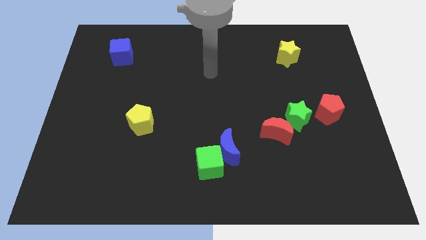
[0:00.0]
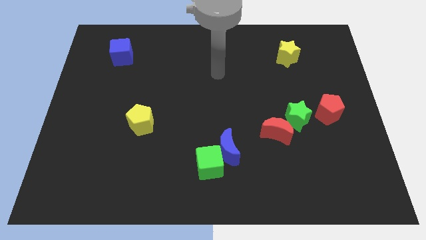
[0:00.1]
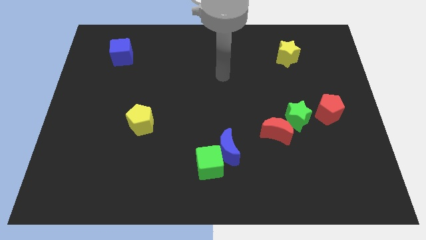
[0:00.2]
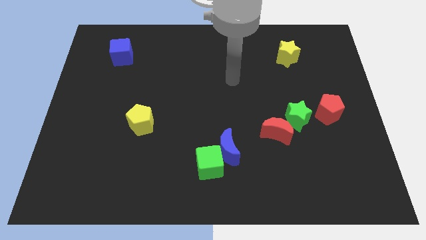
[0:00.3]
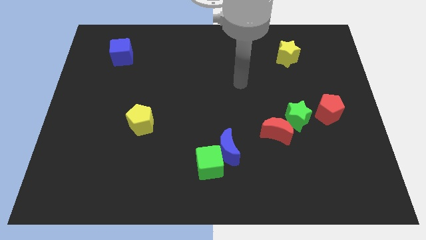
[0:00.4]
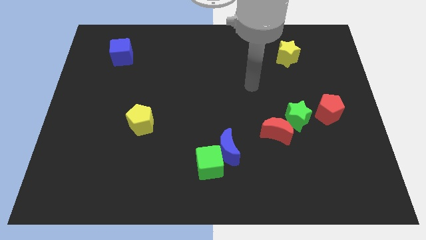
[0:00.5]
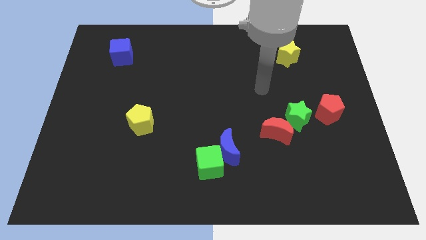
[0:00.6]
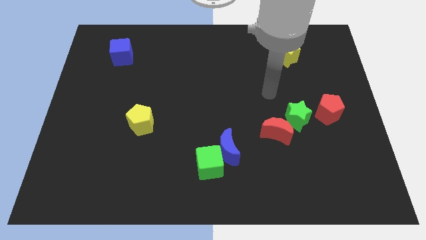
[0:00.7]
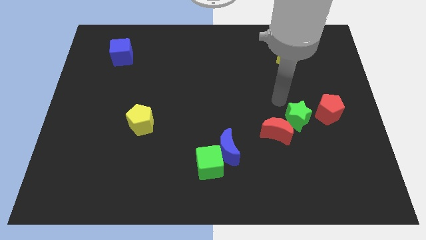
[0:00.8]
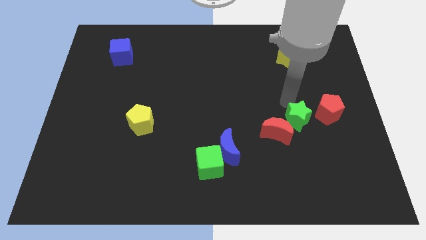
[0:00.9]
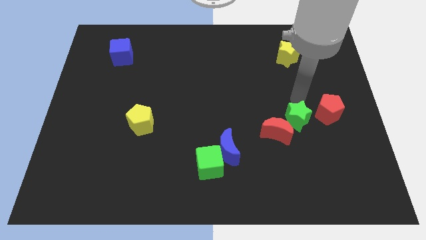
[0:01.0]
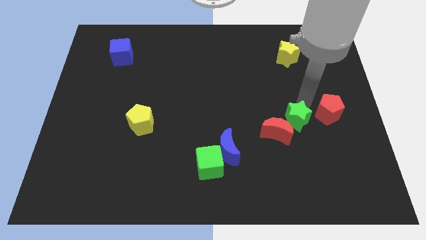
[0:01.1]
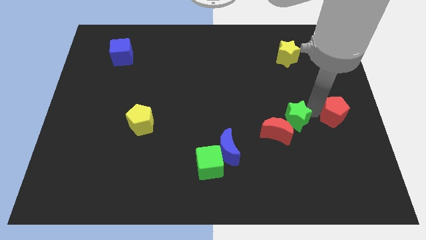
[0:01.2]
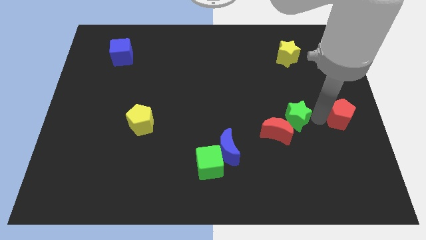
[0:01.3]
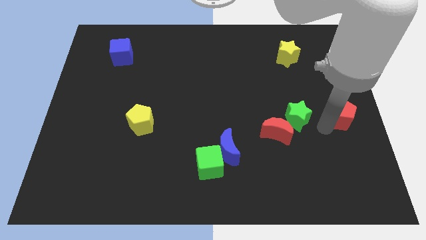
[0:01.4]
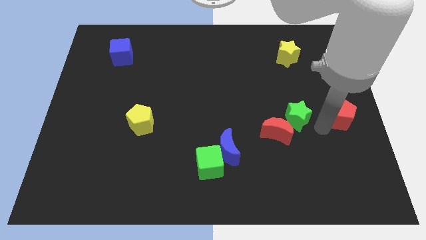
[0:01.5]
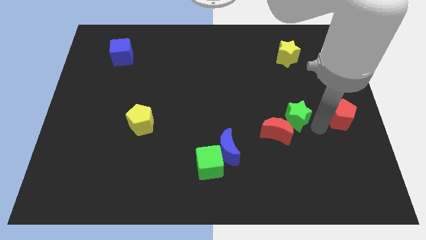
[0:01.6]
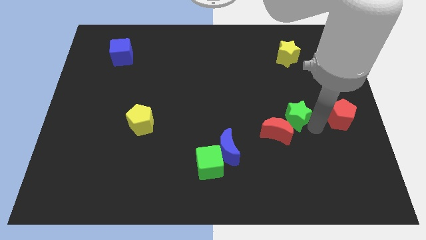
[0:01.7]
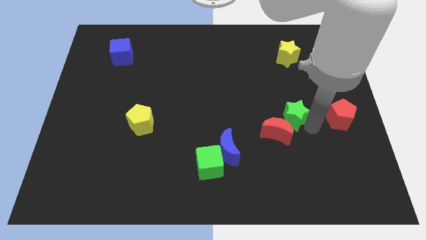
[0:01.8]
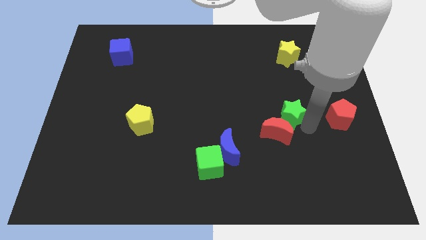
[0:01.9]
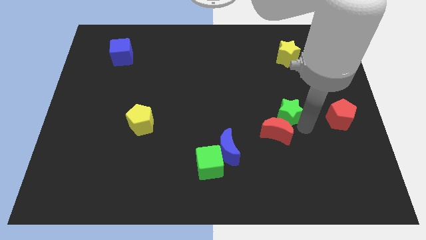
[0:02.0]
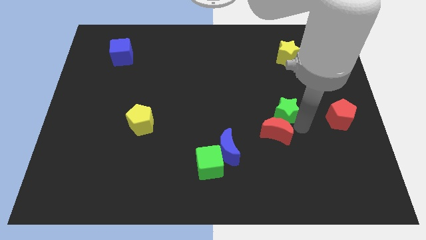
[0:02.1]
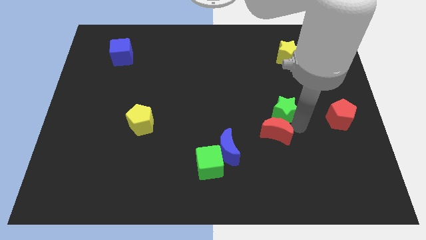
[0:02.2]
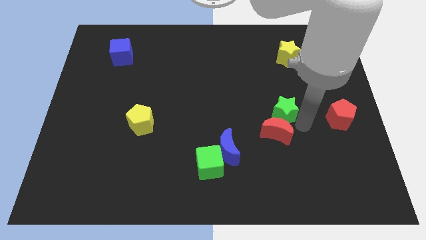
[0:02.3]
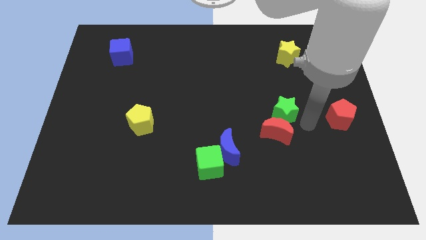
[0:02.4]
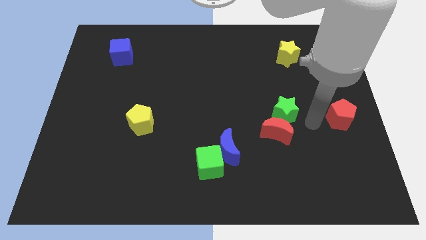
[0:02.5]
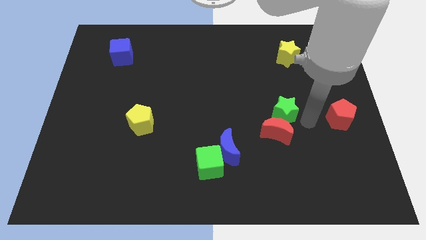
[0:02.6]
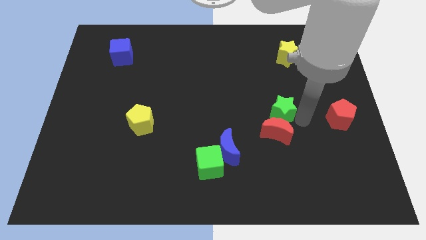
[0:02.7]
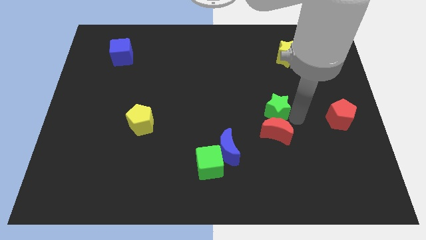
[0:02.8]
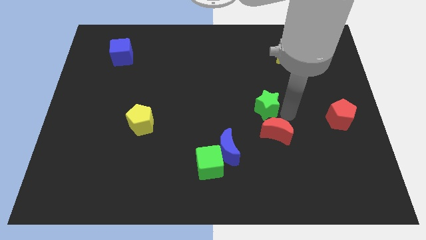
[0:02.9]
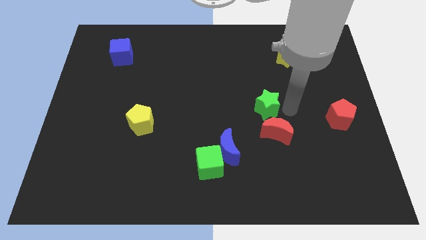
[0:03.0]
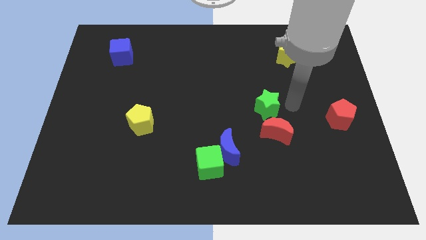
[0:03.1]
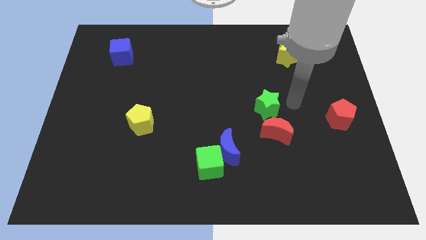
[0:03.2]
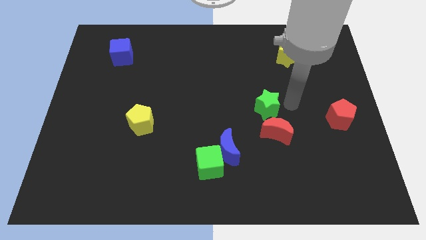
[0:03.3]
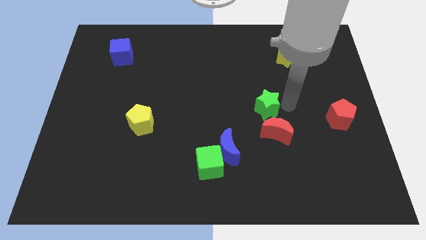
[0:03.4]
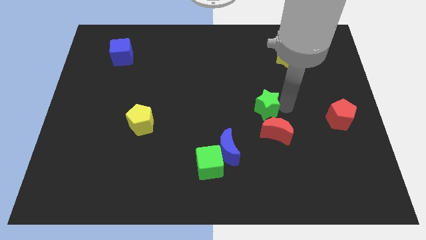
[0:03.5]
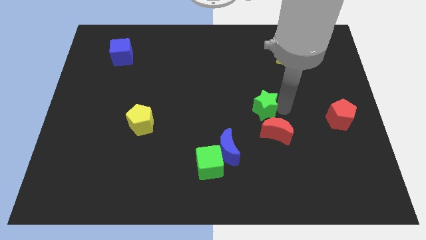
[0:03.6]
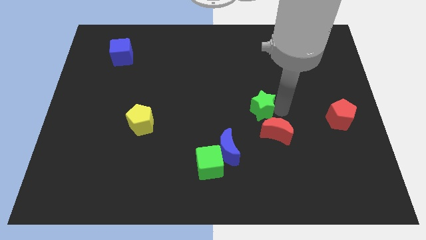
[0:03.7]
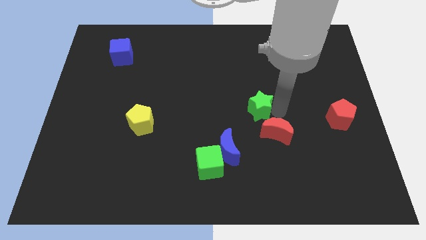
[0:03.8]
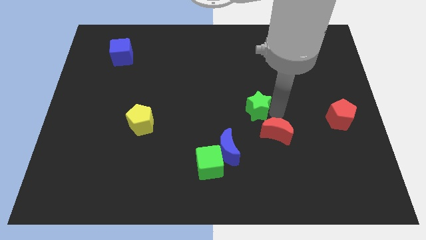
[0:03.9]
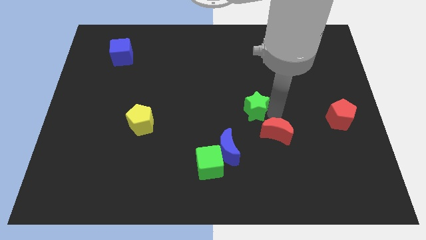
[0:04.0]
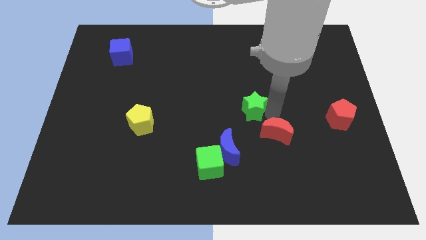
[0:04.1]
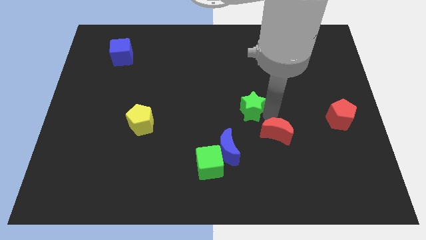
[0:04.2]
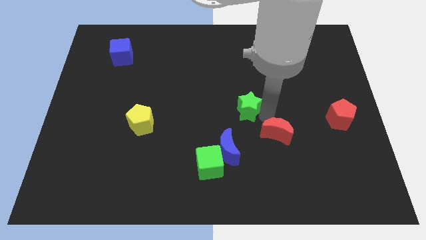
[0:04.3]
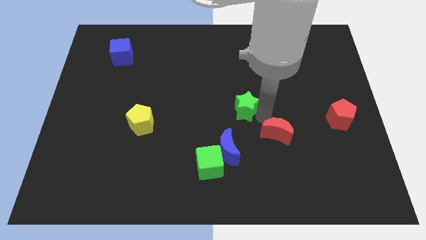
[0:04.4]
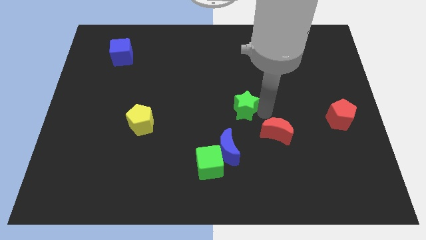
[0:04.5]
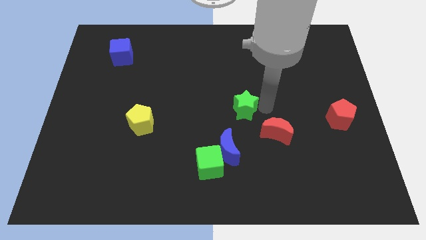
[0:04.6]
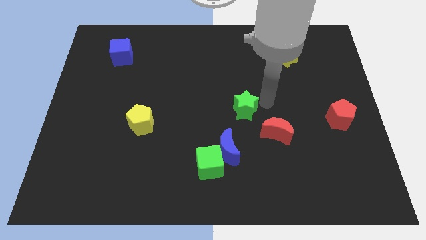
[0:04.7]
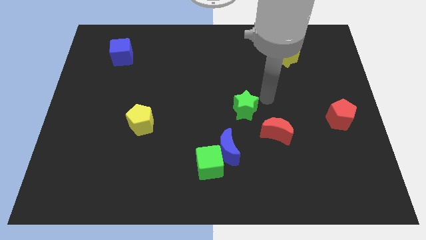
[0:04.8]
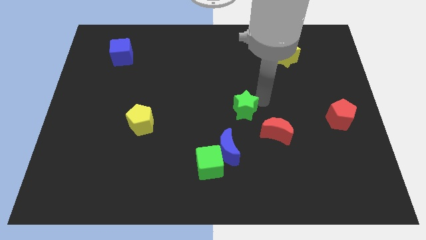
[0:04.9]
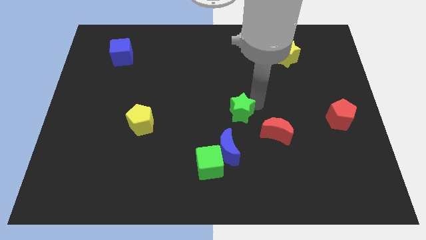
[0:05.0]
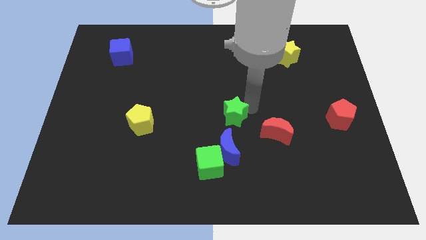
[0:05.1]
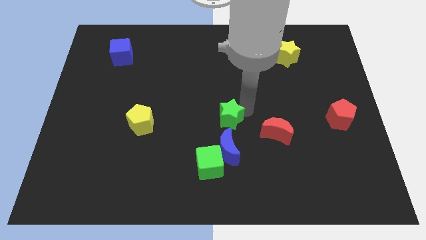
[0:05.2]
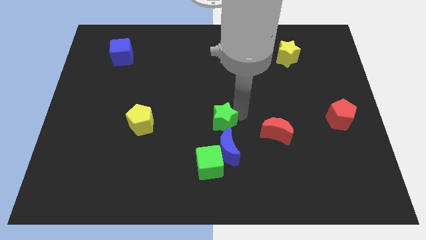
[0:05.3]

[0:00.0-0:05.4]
put the green star to the top left side of the blue moon

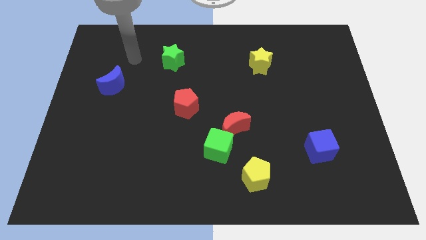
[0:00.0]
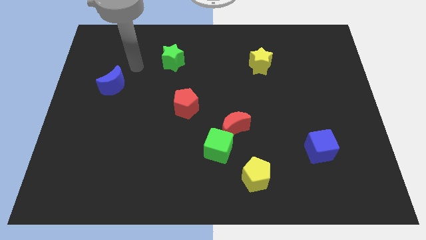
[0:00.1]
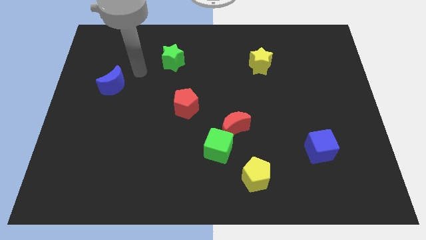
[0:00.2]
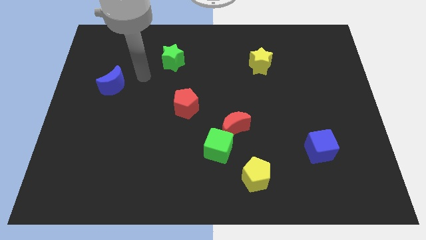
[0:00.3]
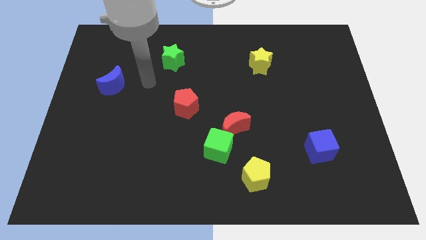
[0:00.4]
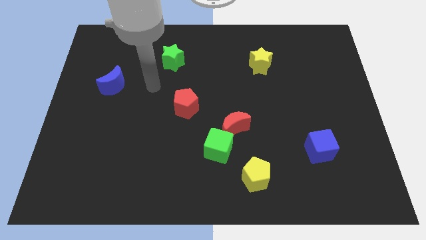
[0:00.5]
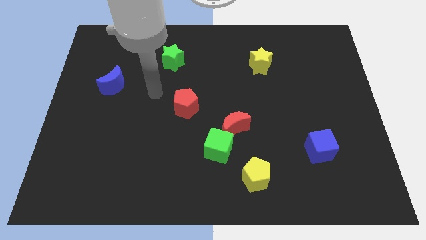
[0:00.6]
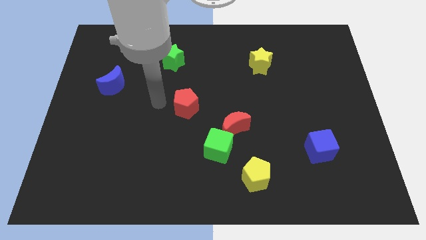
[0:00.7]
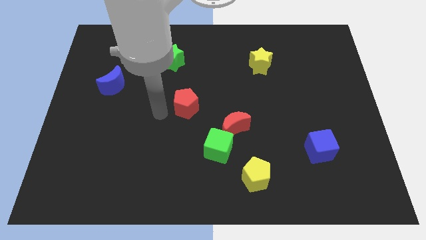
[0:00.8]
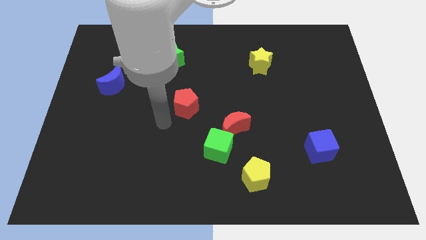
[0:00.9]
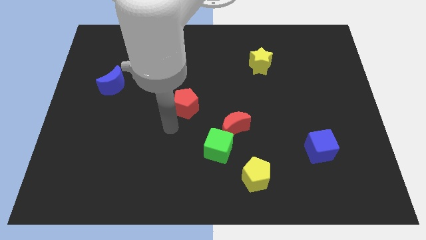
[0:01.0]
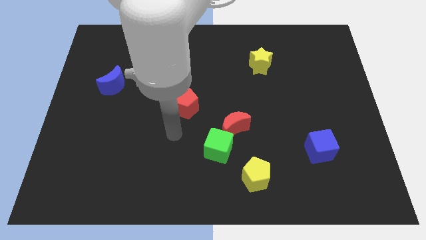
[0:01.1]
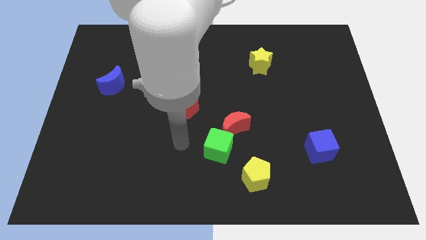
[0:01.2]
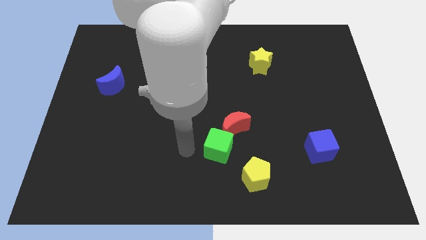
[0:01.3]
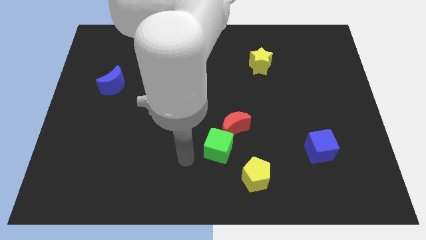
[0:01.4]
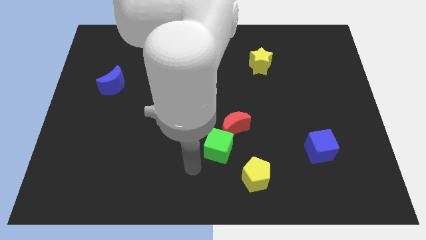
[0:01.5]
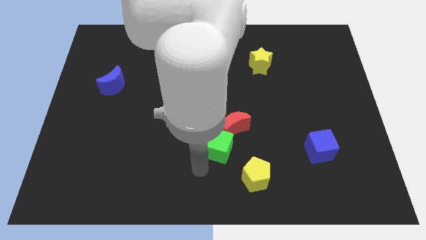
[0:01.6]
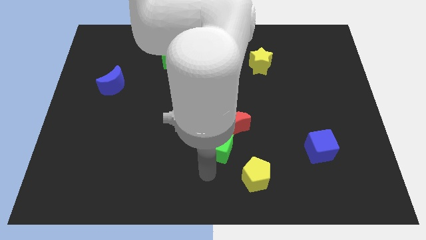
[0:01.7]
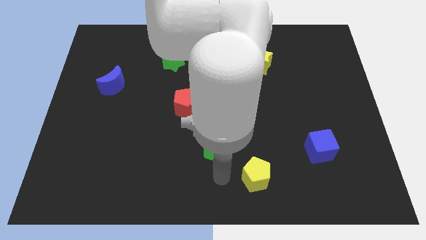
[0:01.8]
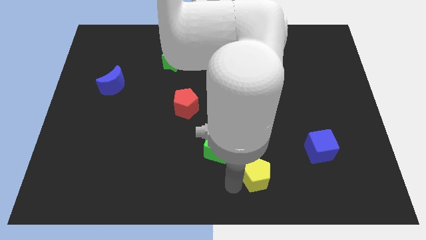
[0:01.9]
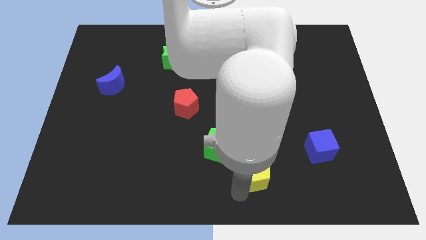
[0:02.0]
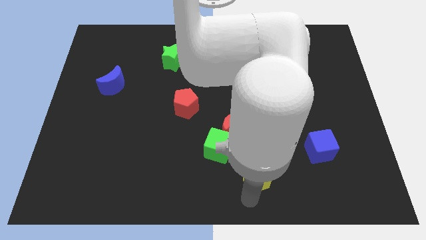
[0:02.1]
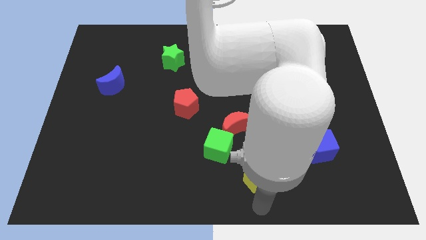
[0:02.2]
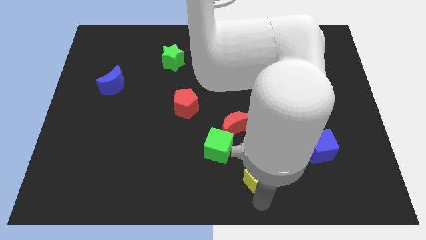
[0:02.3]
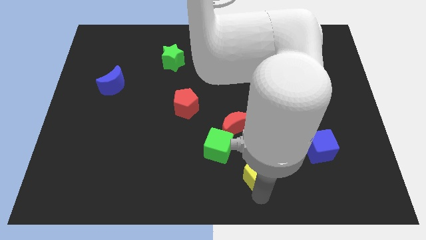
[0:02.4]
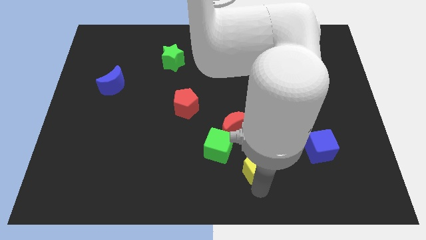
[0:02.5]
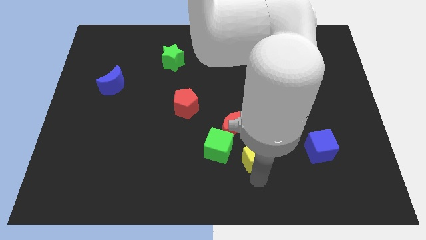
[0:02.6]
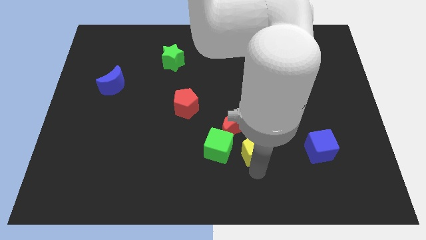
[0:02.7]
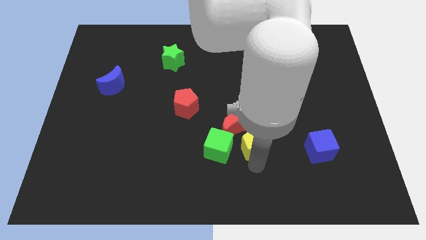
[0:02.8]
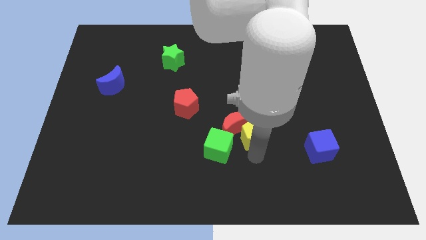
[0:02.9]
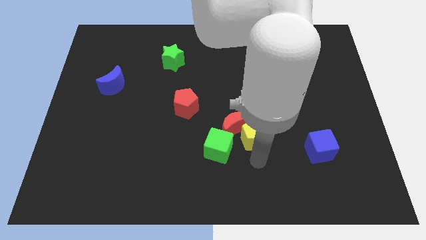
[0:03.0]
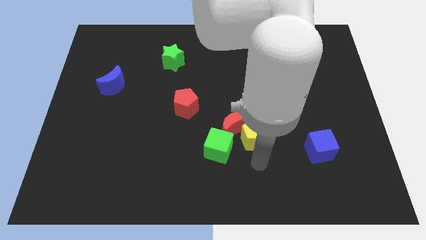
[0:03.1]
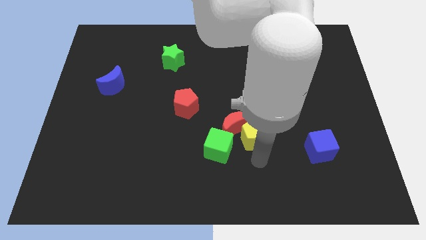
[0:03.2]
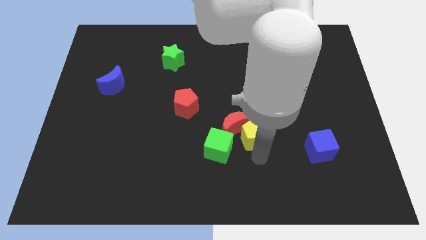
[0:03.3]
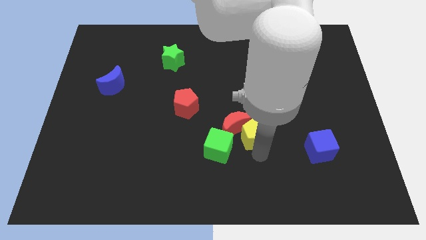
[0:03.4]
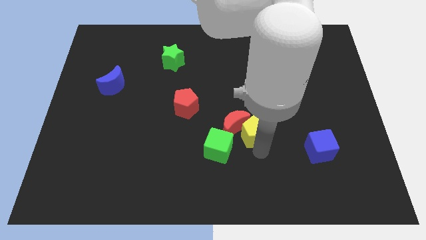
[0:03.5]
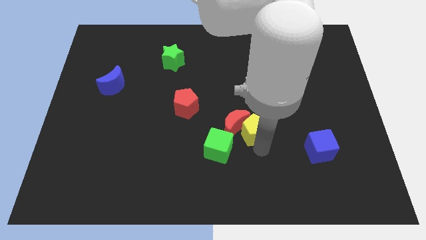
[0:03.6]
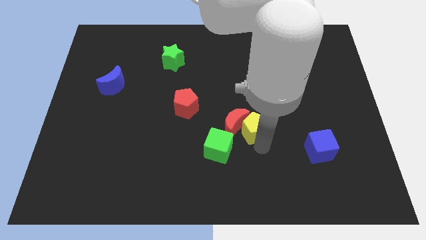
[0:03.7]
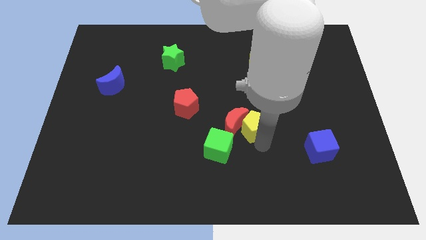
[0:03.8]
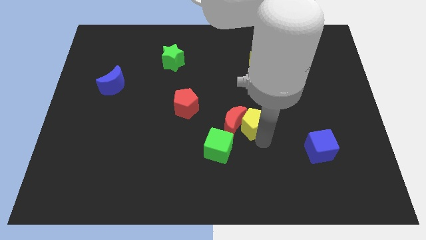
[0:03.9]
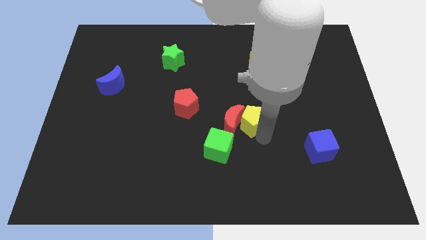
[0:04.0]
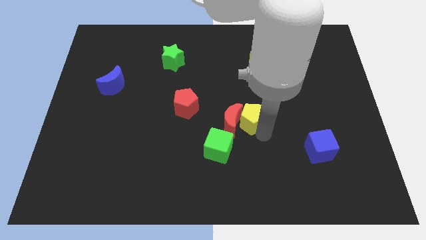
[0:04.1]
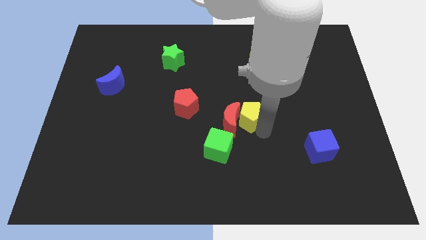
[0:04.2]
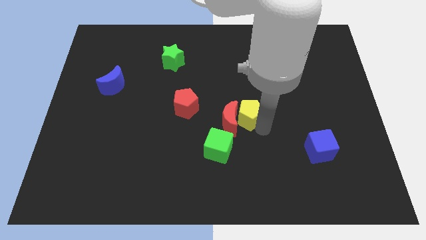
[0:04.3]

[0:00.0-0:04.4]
slide the yellow pentagon right of the red pentagon
